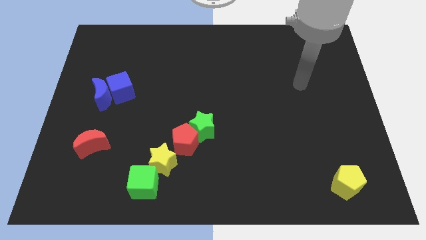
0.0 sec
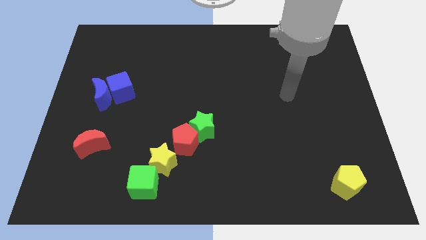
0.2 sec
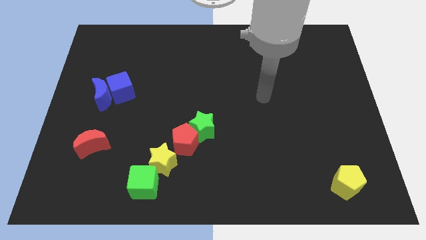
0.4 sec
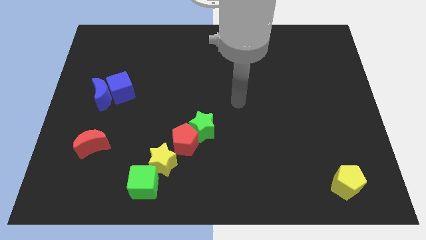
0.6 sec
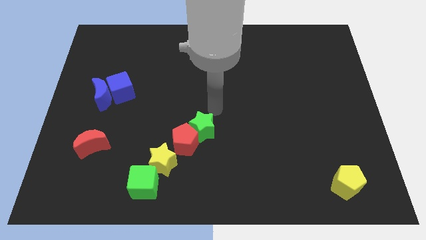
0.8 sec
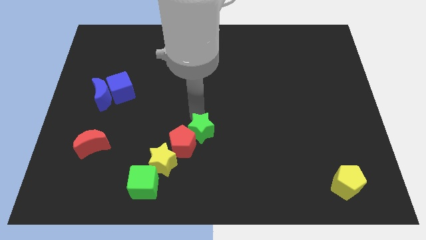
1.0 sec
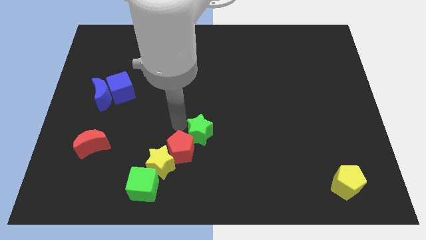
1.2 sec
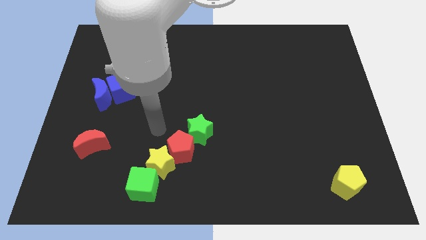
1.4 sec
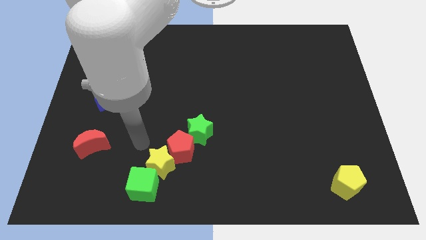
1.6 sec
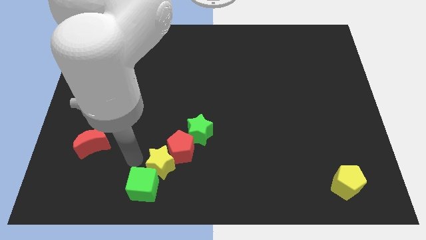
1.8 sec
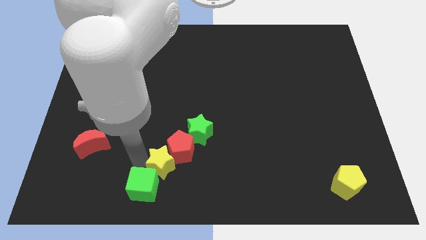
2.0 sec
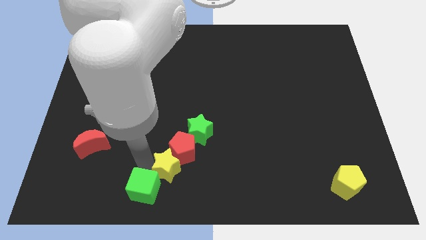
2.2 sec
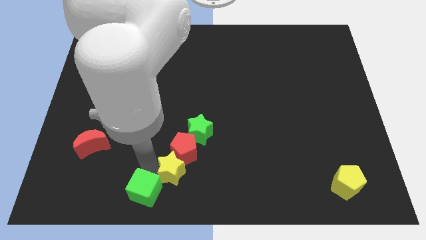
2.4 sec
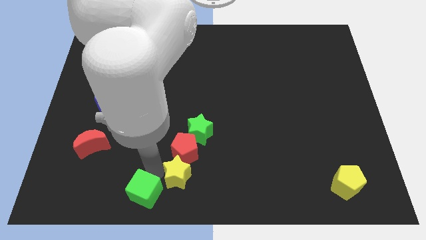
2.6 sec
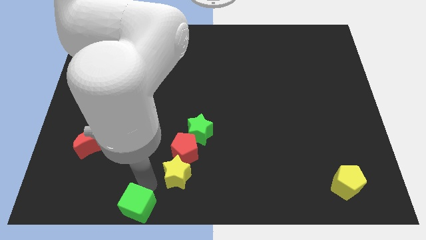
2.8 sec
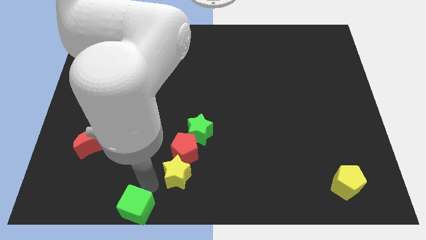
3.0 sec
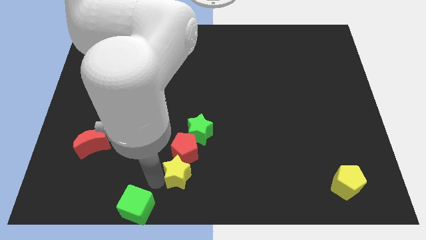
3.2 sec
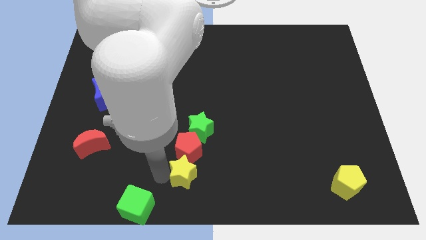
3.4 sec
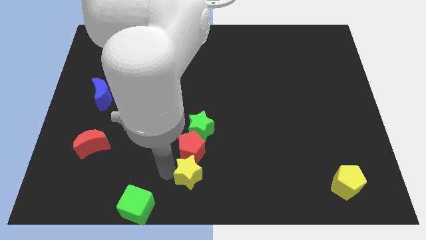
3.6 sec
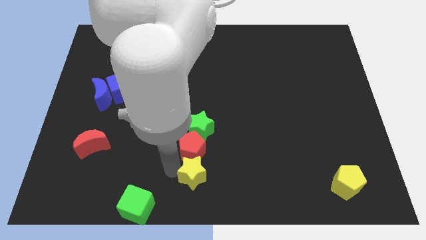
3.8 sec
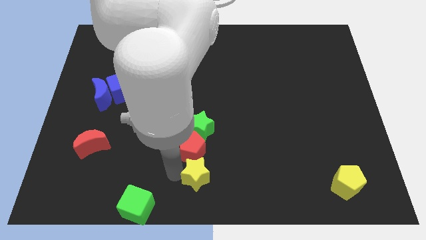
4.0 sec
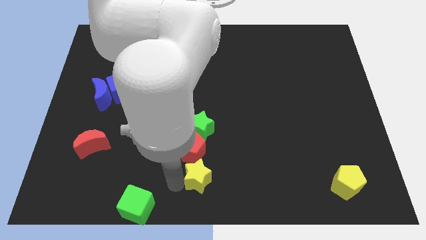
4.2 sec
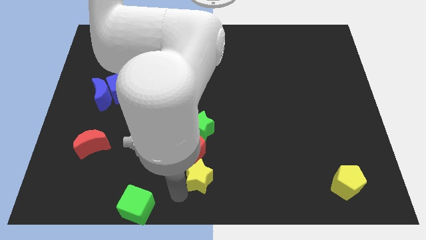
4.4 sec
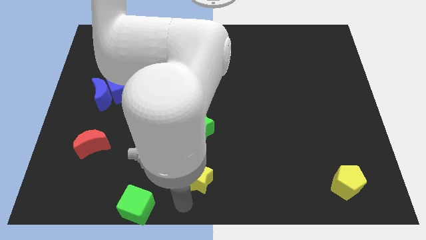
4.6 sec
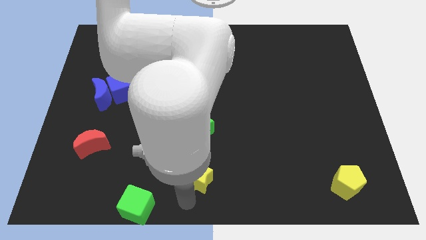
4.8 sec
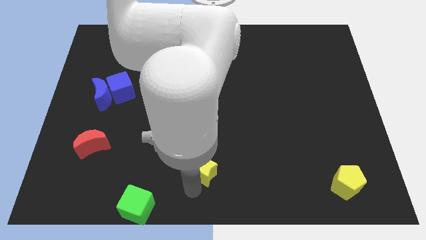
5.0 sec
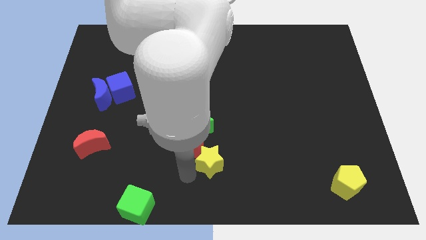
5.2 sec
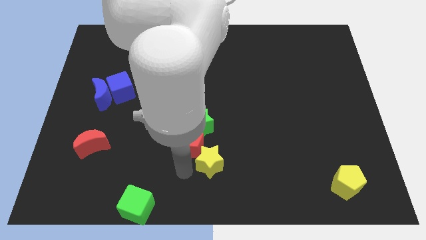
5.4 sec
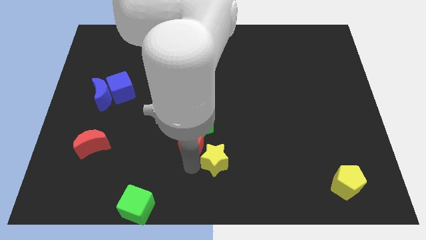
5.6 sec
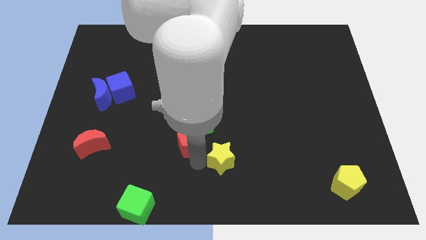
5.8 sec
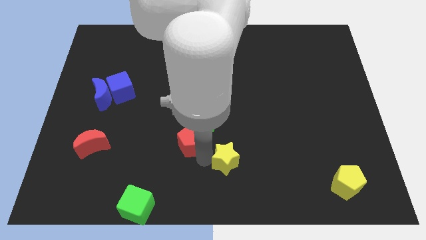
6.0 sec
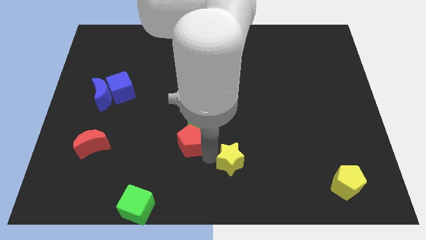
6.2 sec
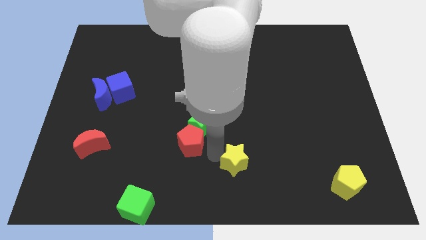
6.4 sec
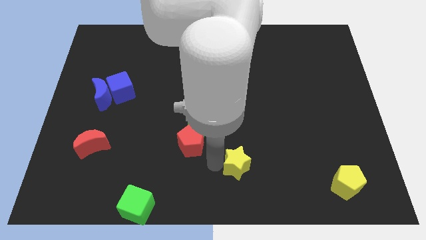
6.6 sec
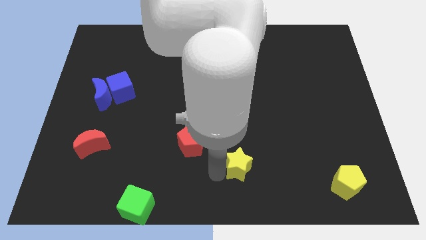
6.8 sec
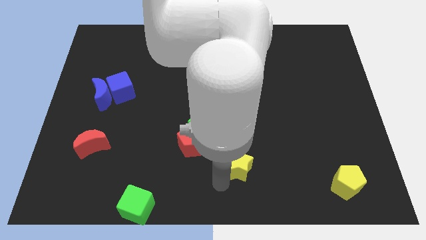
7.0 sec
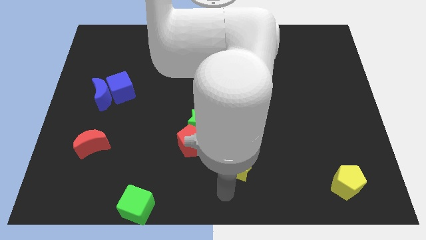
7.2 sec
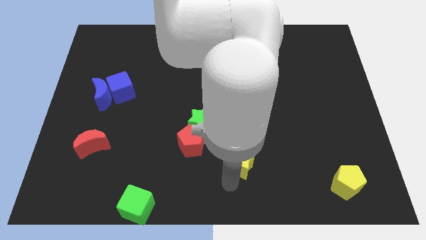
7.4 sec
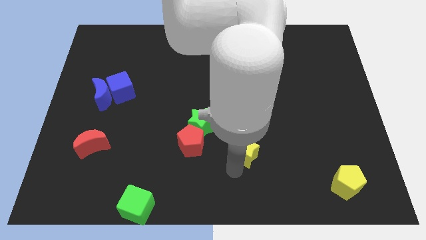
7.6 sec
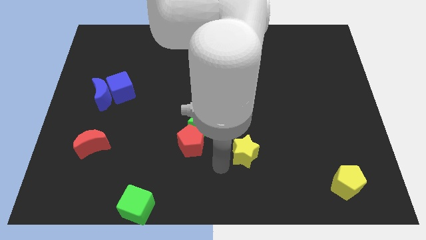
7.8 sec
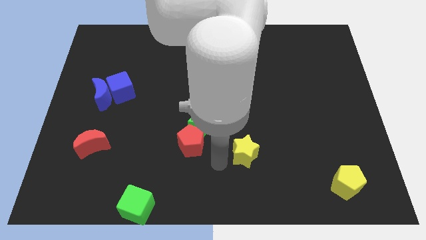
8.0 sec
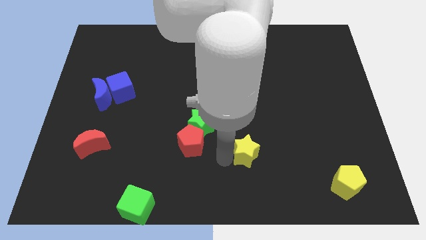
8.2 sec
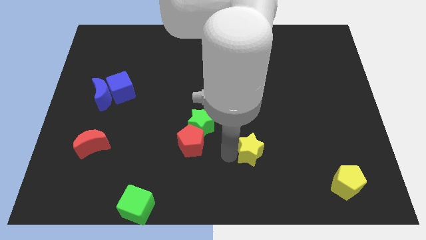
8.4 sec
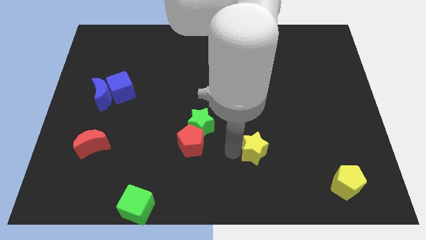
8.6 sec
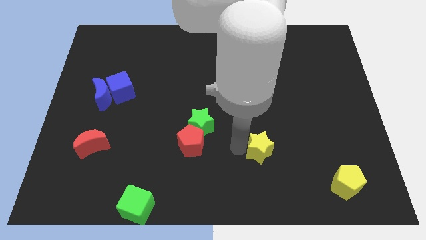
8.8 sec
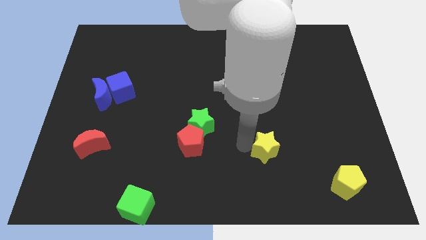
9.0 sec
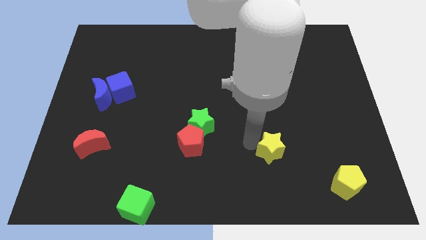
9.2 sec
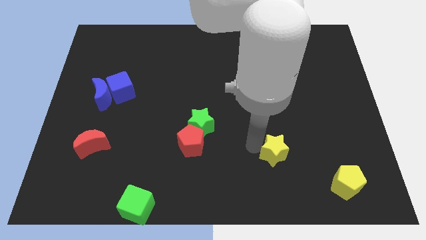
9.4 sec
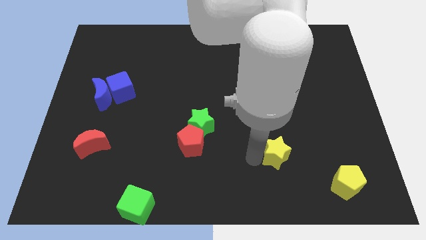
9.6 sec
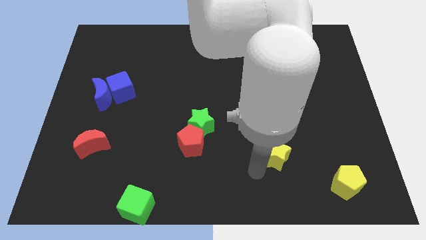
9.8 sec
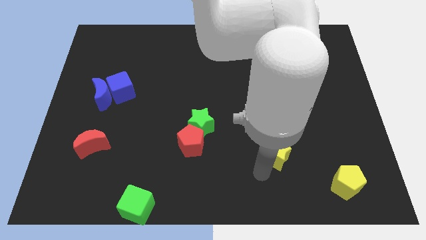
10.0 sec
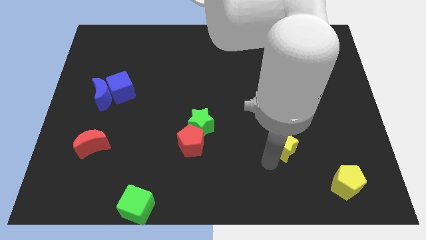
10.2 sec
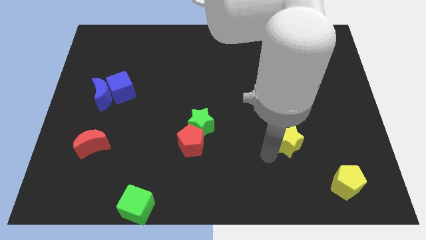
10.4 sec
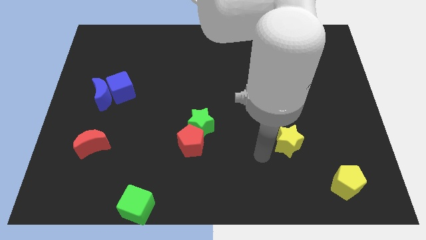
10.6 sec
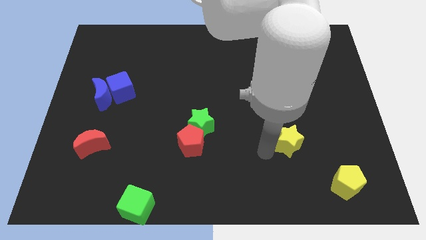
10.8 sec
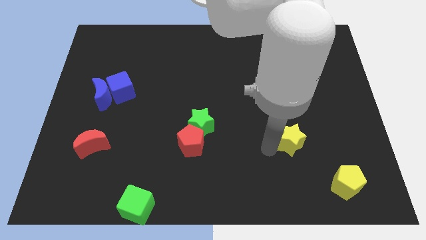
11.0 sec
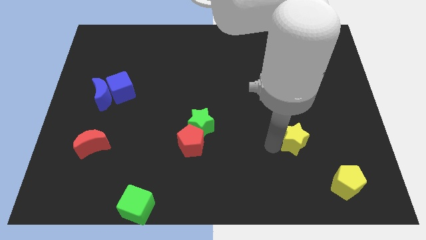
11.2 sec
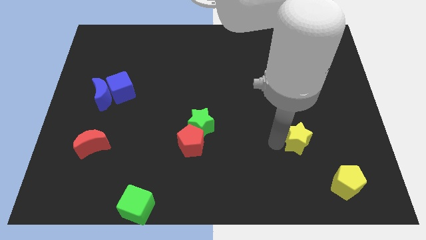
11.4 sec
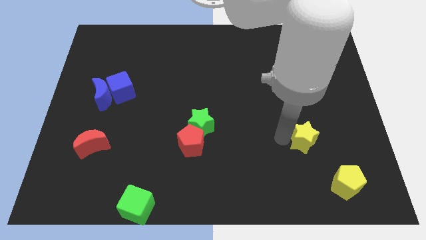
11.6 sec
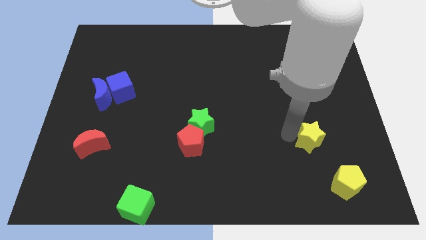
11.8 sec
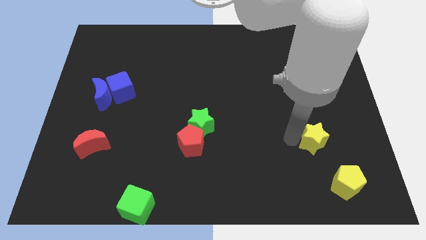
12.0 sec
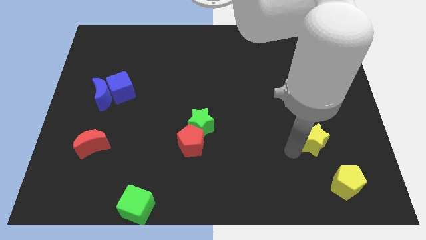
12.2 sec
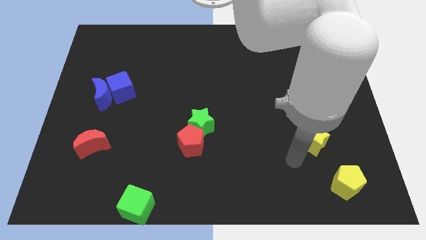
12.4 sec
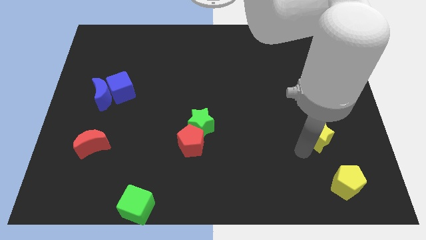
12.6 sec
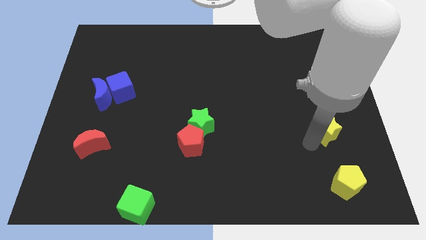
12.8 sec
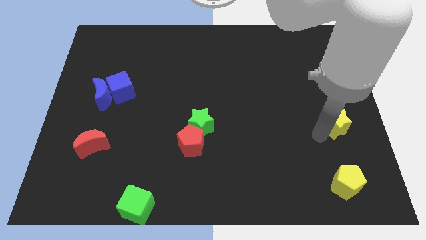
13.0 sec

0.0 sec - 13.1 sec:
move the yellow star to the center right
